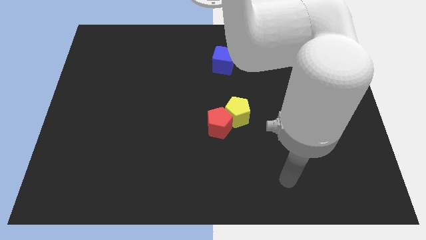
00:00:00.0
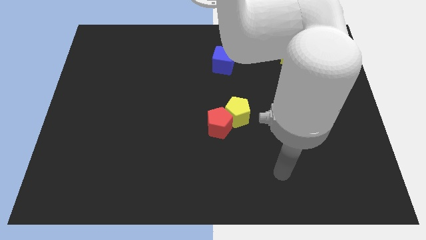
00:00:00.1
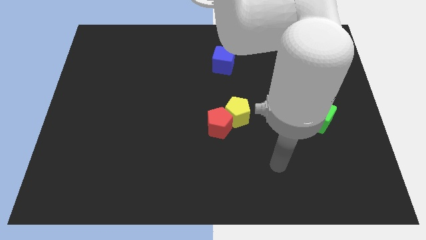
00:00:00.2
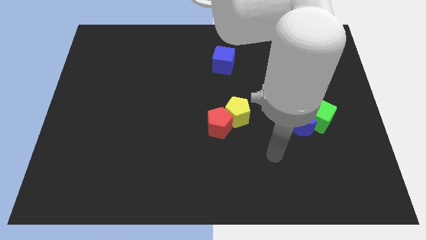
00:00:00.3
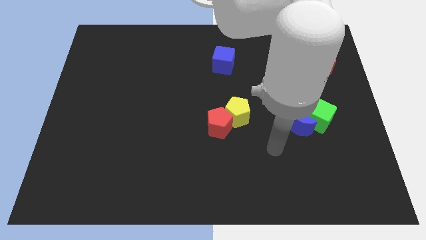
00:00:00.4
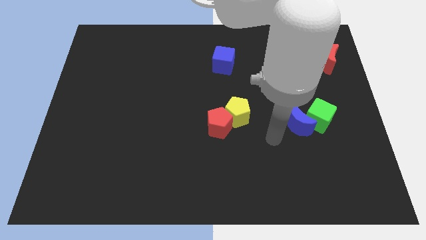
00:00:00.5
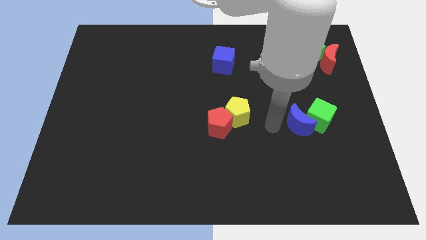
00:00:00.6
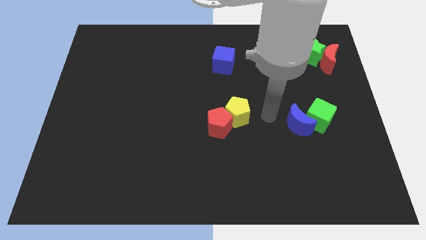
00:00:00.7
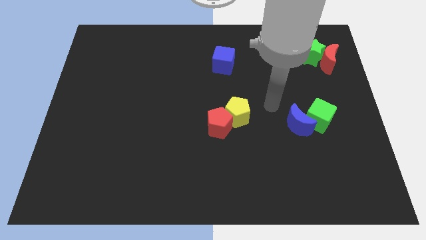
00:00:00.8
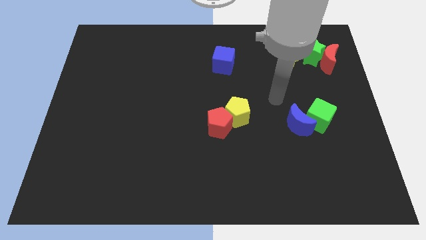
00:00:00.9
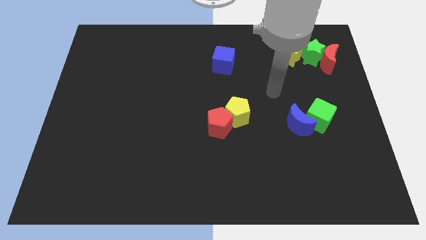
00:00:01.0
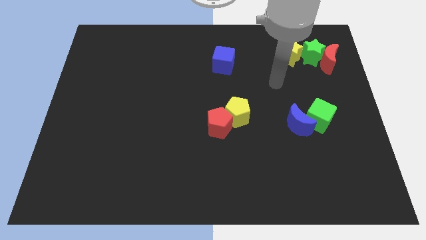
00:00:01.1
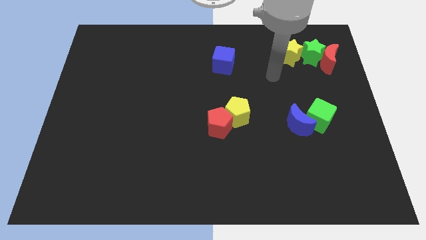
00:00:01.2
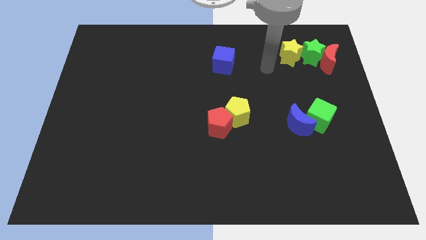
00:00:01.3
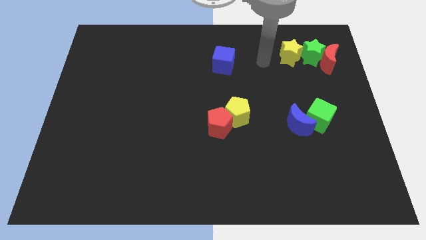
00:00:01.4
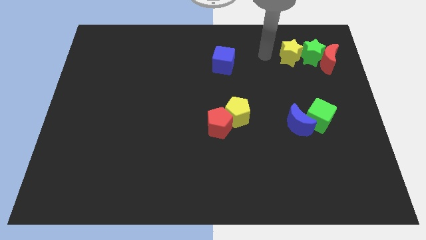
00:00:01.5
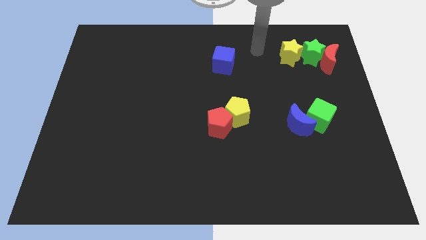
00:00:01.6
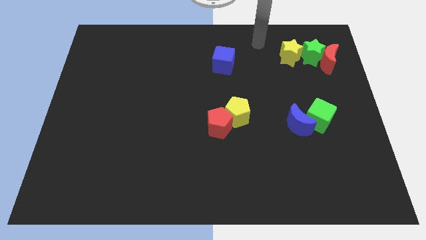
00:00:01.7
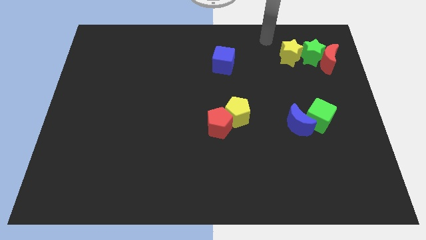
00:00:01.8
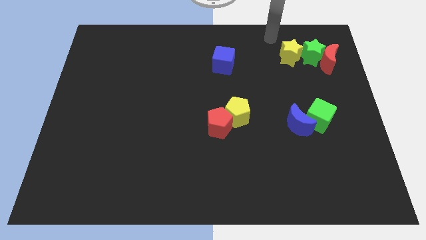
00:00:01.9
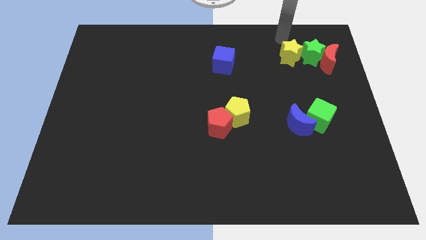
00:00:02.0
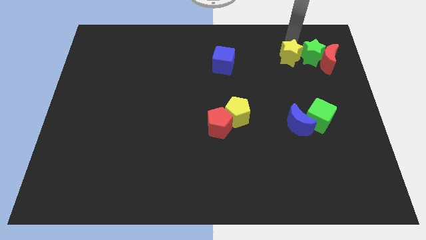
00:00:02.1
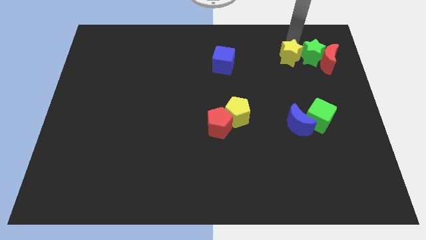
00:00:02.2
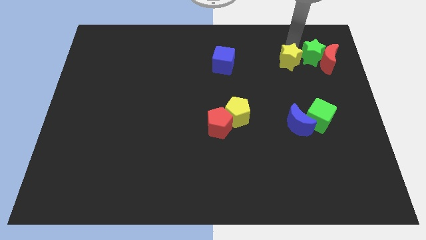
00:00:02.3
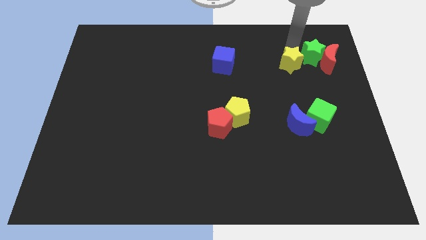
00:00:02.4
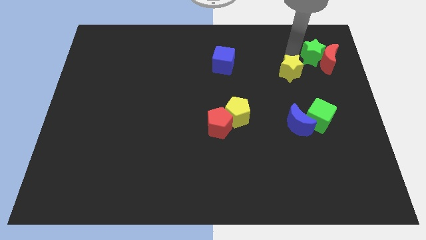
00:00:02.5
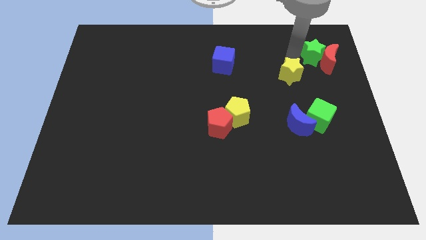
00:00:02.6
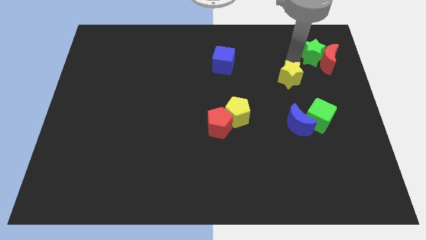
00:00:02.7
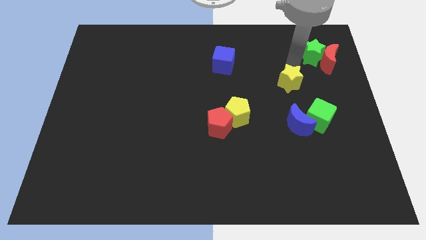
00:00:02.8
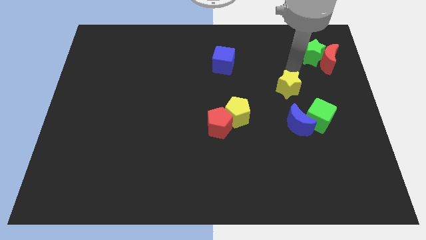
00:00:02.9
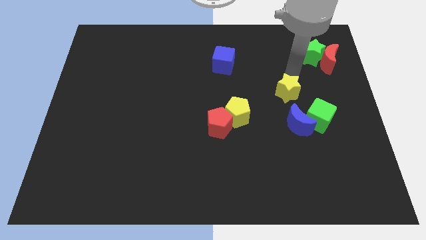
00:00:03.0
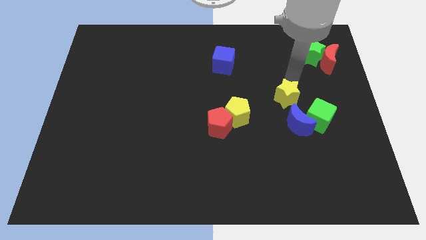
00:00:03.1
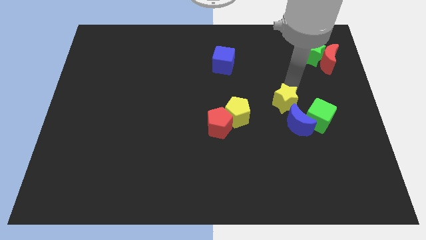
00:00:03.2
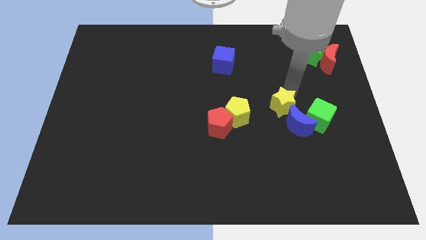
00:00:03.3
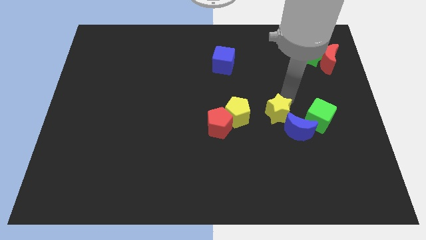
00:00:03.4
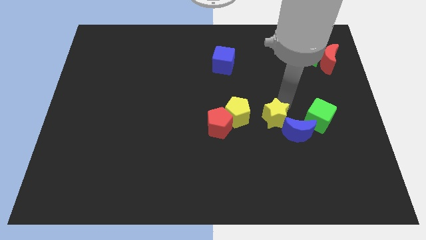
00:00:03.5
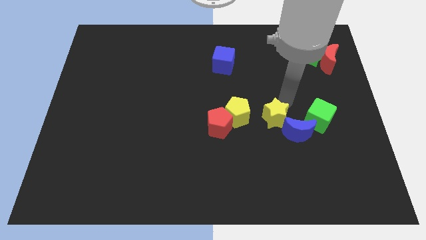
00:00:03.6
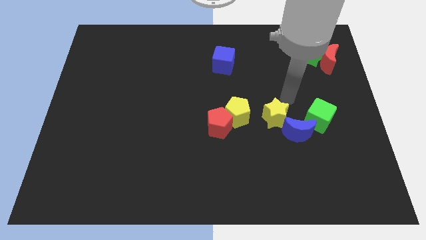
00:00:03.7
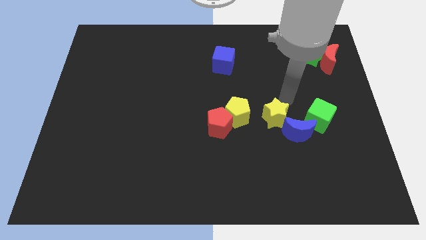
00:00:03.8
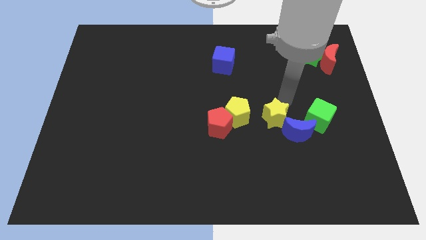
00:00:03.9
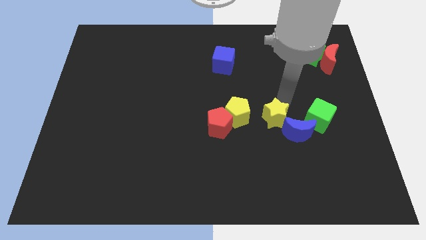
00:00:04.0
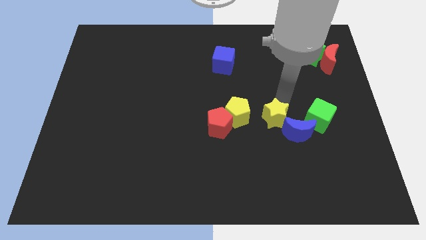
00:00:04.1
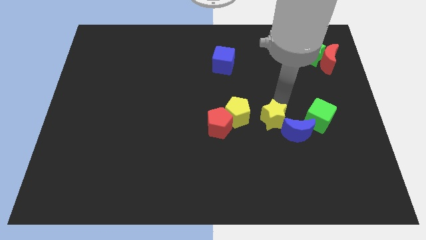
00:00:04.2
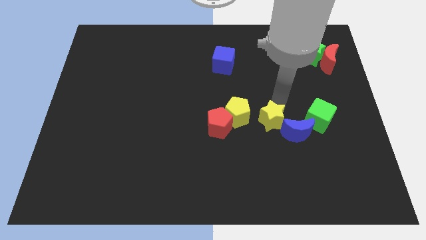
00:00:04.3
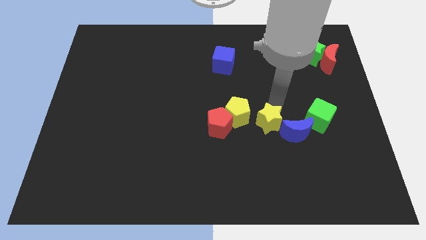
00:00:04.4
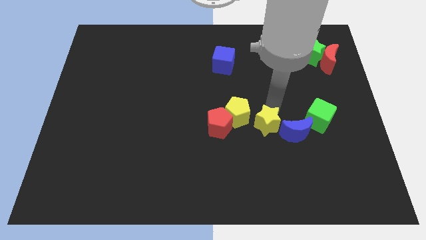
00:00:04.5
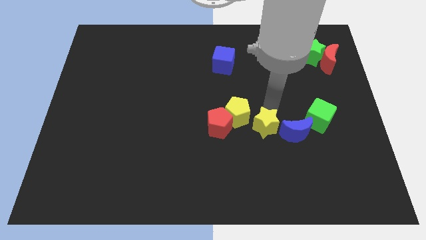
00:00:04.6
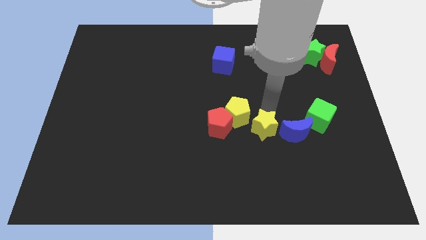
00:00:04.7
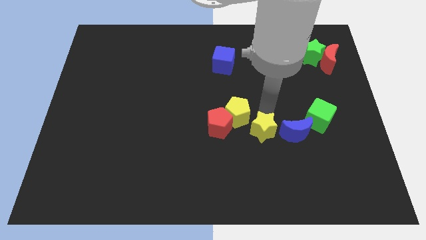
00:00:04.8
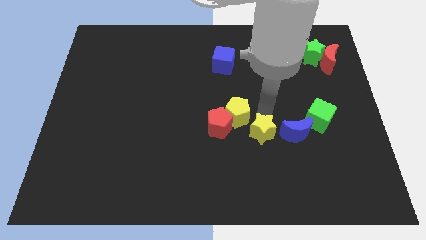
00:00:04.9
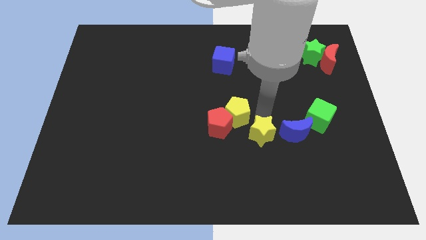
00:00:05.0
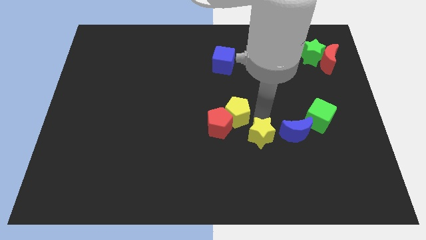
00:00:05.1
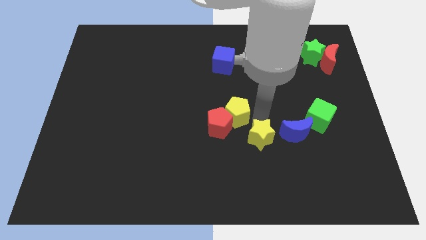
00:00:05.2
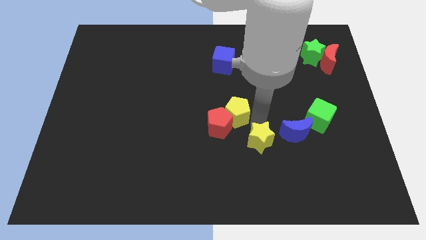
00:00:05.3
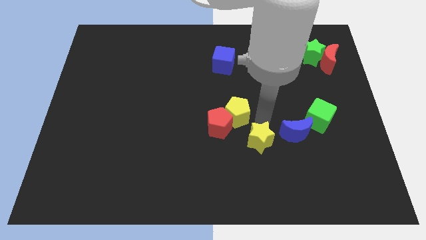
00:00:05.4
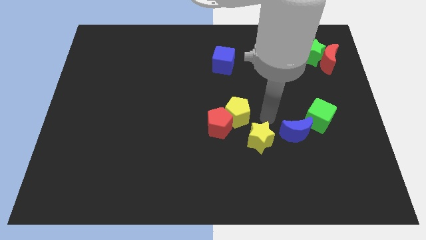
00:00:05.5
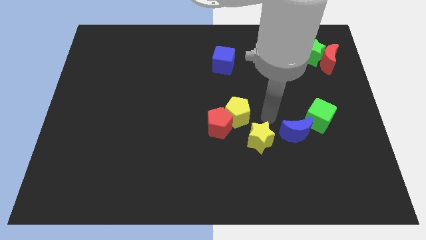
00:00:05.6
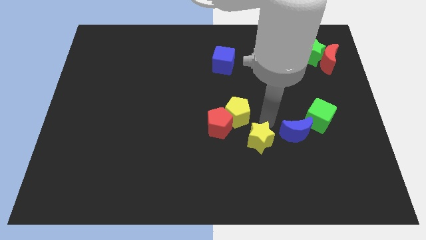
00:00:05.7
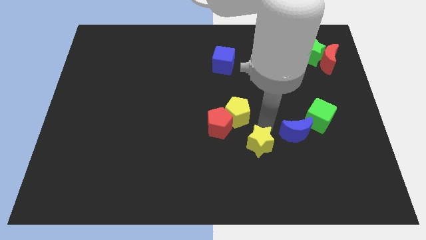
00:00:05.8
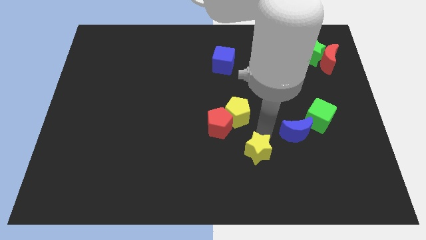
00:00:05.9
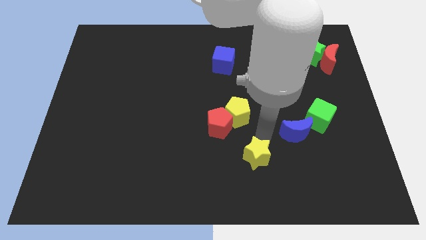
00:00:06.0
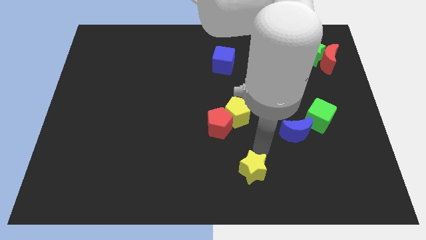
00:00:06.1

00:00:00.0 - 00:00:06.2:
slide the yellow star to the bottom

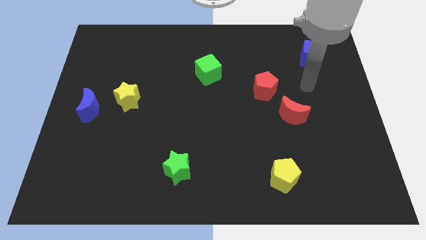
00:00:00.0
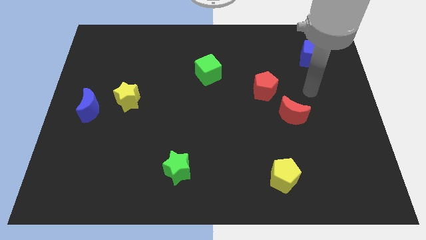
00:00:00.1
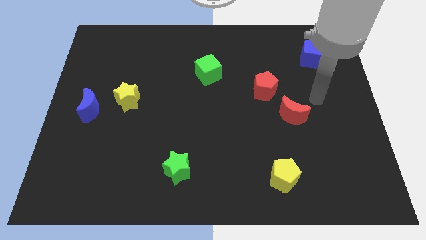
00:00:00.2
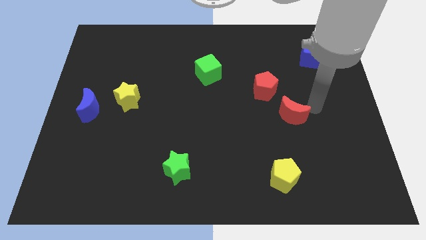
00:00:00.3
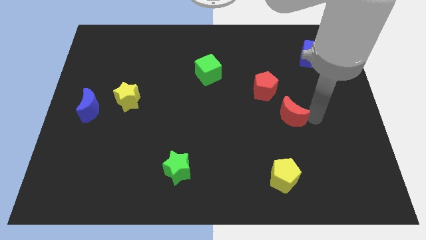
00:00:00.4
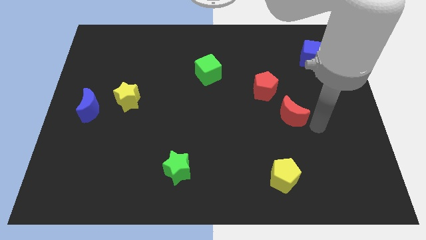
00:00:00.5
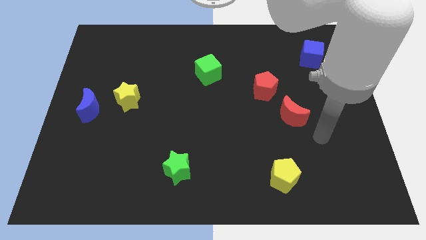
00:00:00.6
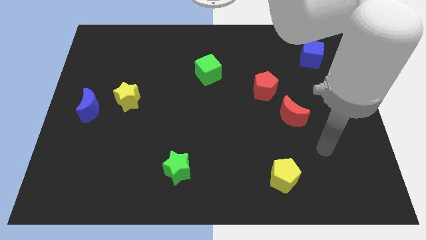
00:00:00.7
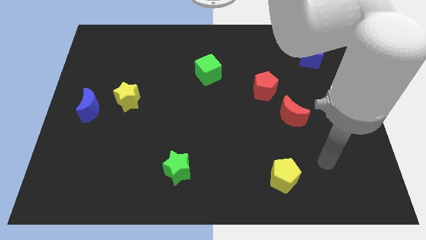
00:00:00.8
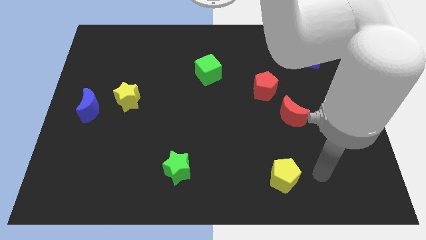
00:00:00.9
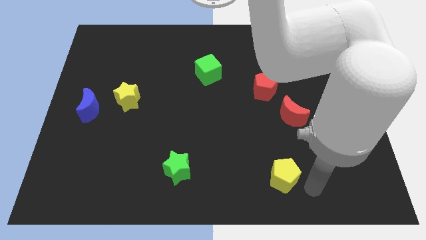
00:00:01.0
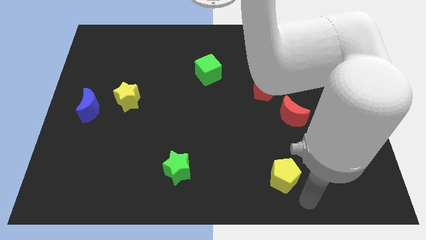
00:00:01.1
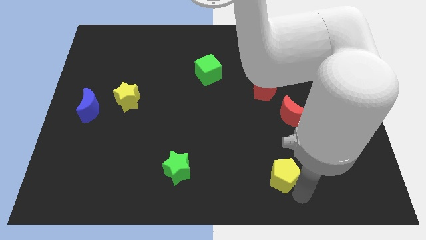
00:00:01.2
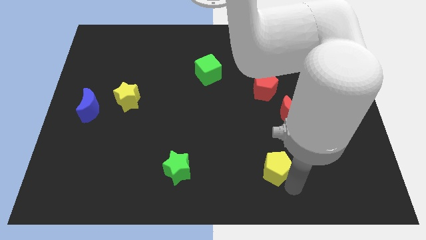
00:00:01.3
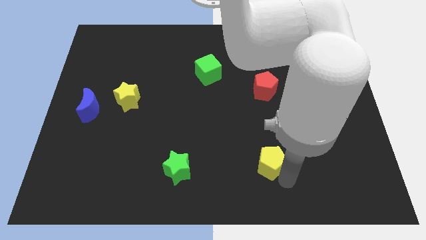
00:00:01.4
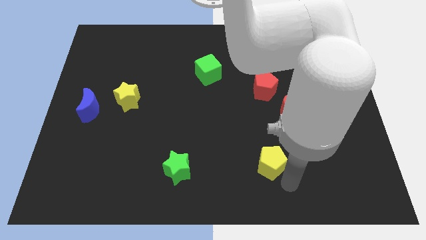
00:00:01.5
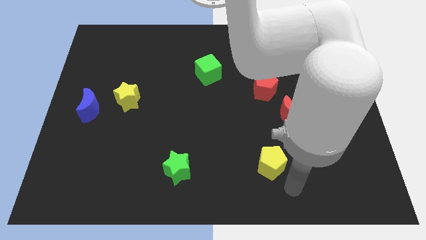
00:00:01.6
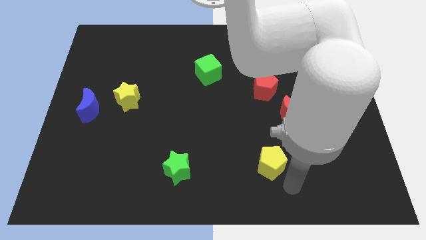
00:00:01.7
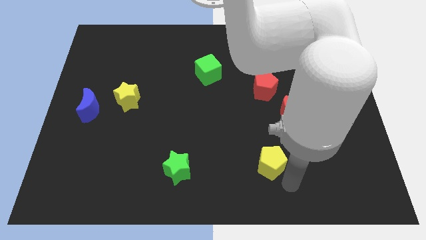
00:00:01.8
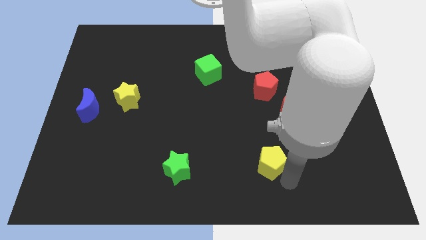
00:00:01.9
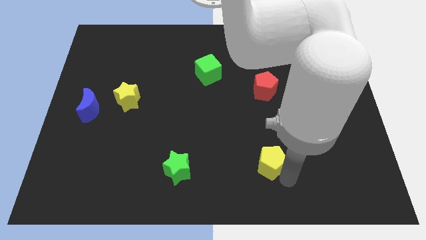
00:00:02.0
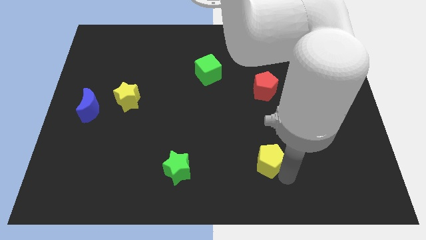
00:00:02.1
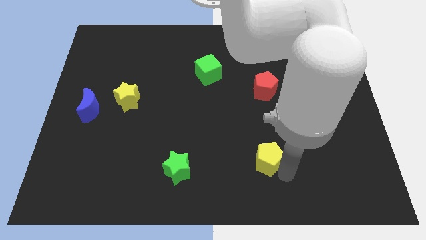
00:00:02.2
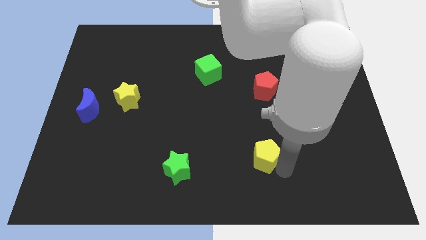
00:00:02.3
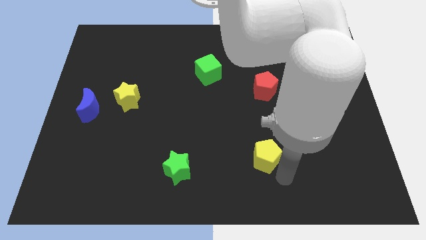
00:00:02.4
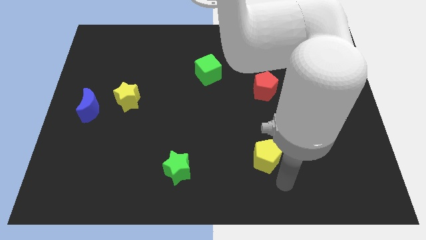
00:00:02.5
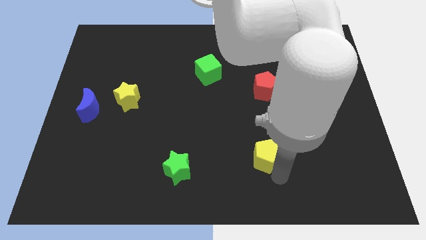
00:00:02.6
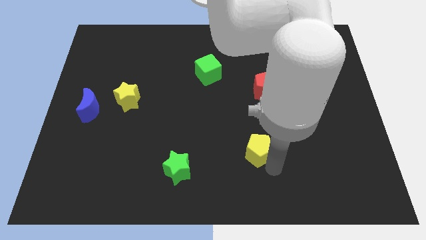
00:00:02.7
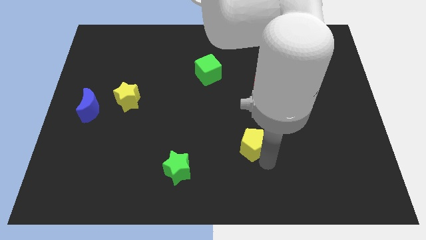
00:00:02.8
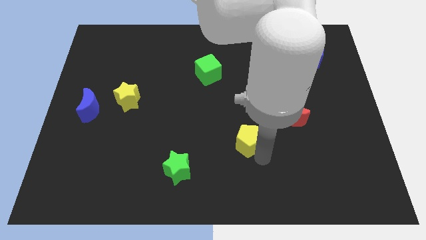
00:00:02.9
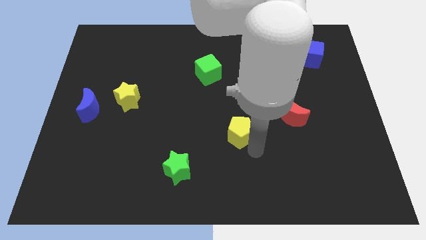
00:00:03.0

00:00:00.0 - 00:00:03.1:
slide the yellow pentagon to the middle of the board
